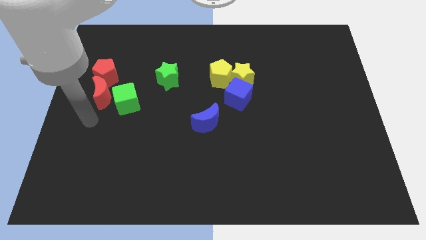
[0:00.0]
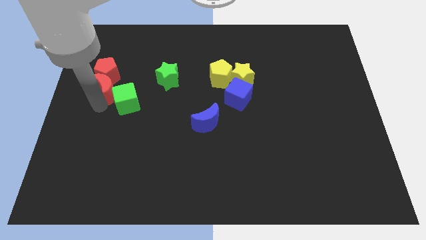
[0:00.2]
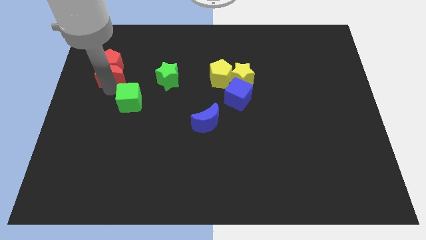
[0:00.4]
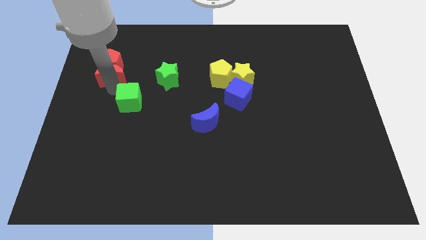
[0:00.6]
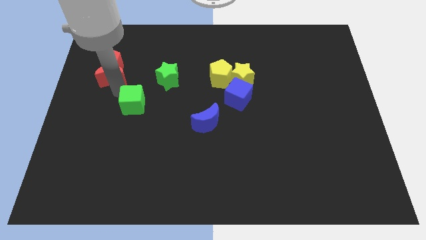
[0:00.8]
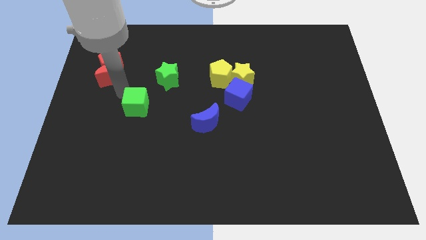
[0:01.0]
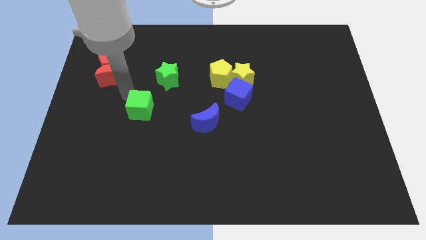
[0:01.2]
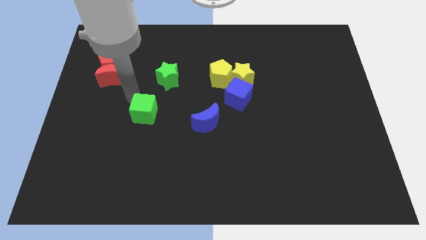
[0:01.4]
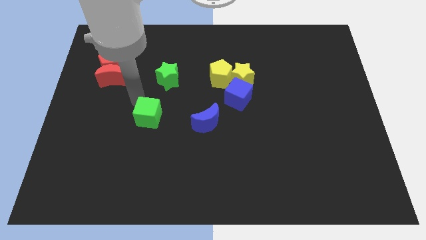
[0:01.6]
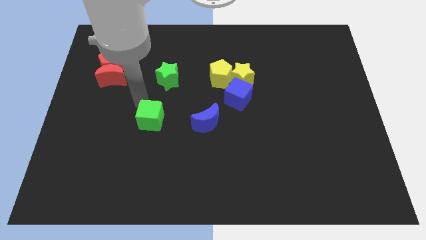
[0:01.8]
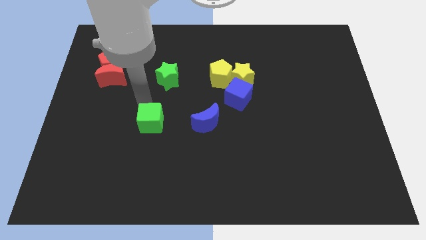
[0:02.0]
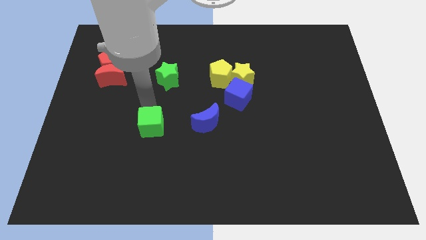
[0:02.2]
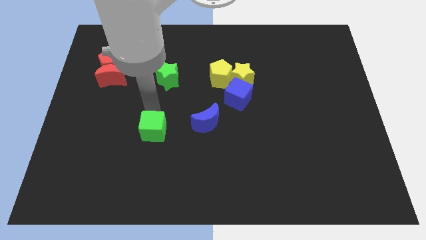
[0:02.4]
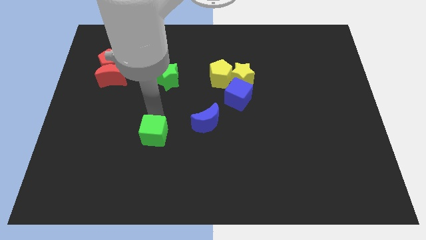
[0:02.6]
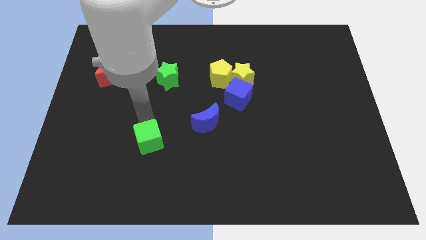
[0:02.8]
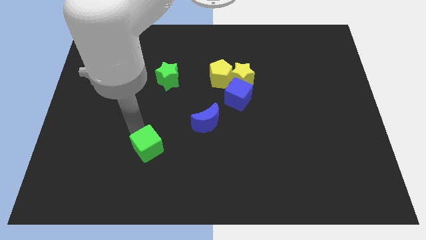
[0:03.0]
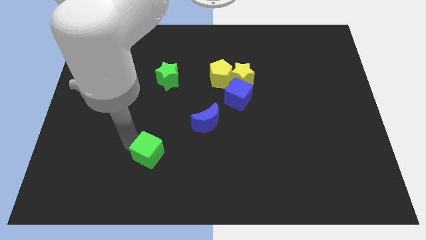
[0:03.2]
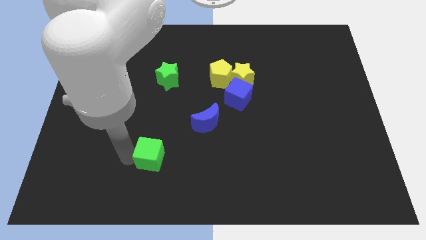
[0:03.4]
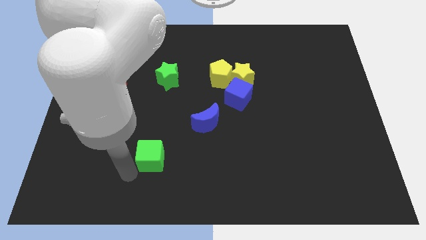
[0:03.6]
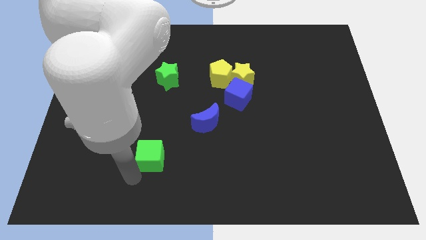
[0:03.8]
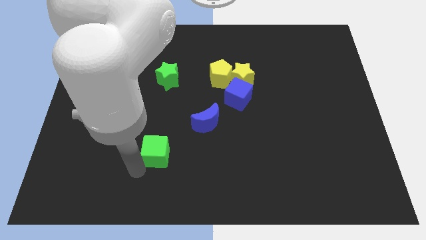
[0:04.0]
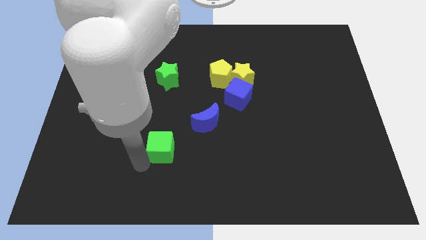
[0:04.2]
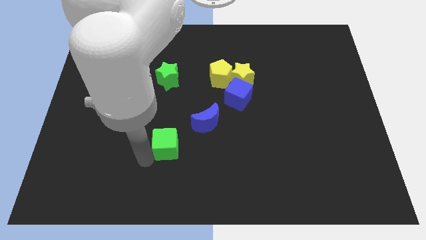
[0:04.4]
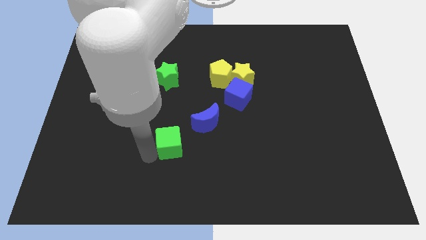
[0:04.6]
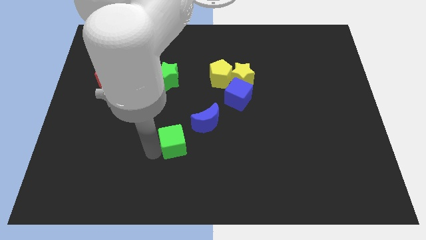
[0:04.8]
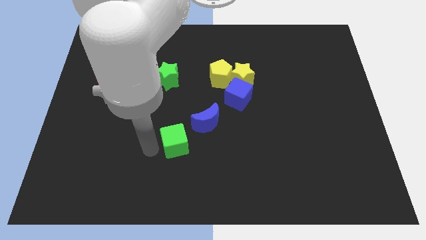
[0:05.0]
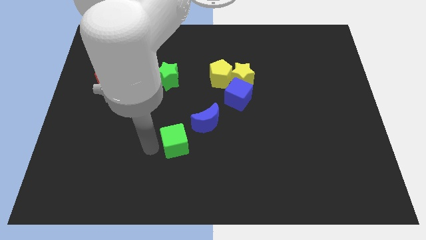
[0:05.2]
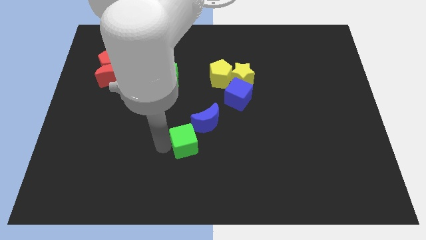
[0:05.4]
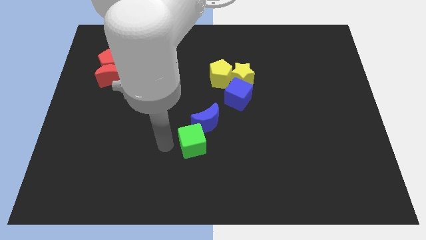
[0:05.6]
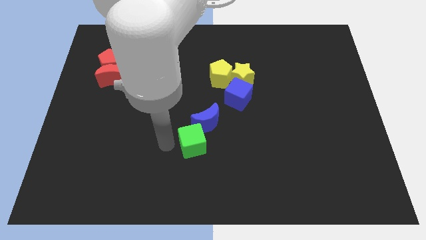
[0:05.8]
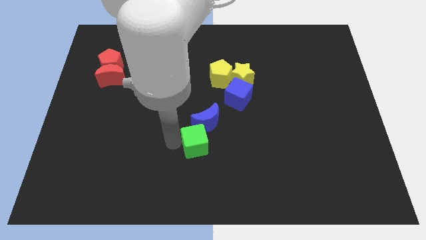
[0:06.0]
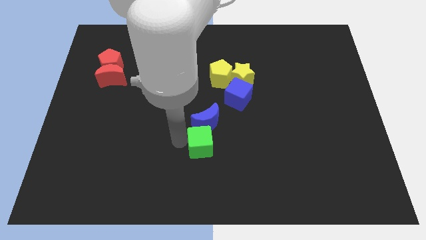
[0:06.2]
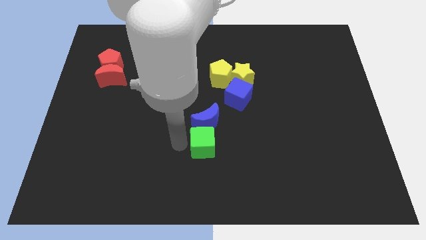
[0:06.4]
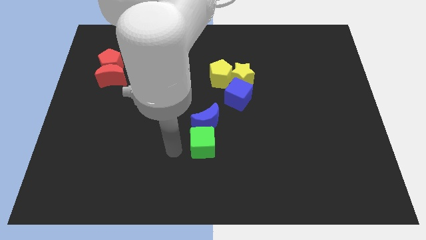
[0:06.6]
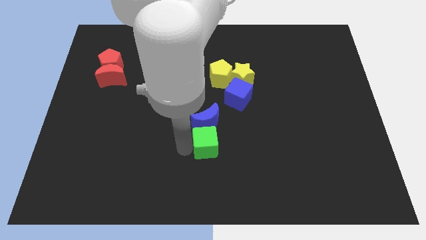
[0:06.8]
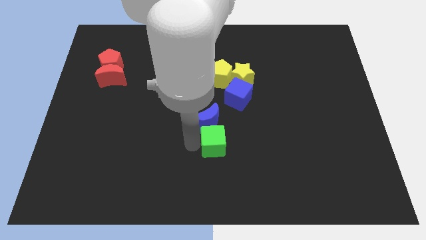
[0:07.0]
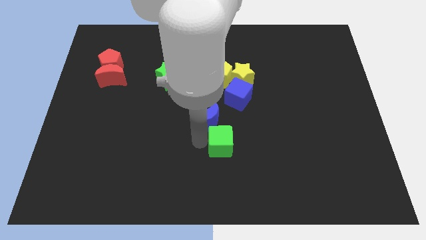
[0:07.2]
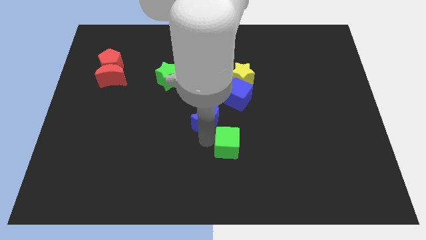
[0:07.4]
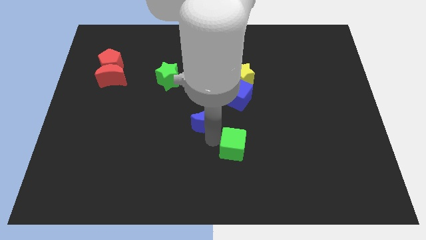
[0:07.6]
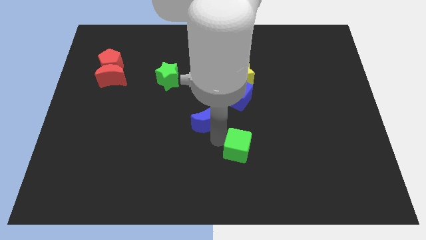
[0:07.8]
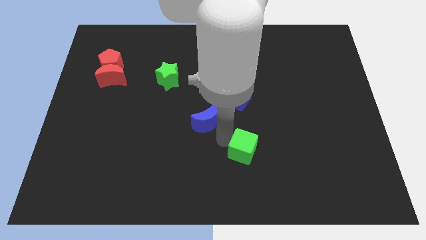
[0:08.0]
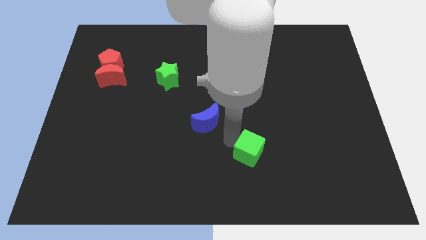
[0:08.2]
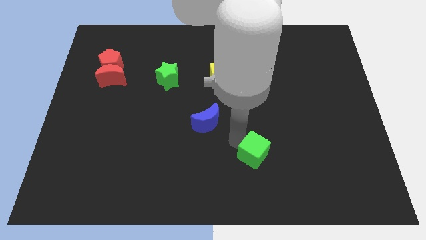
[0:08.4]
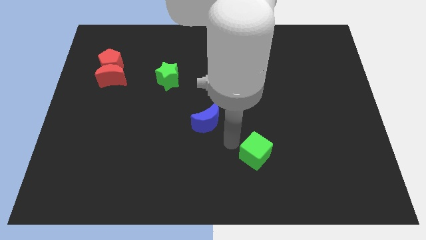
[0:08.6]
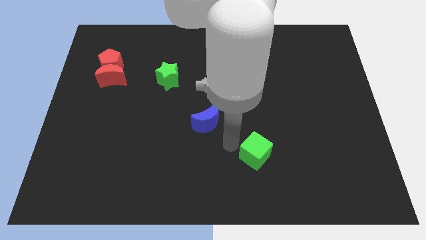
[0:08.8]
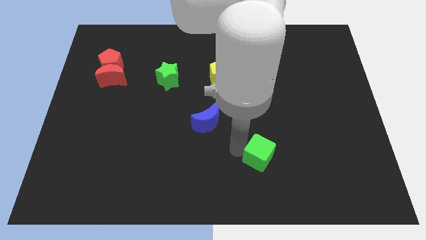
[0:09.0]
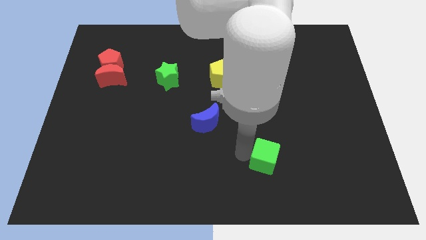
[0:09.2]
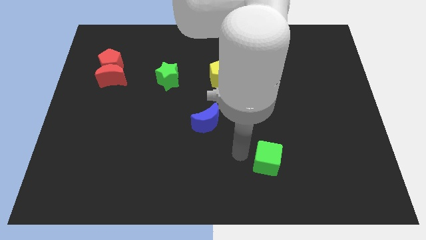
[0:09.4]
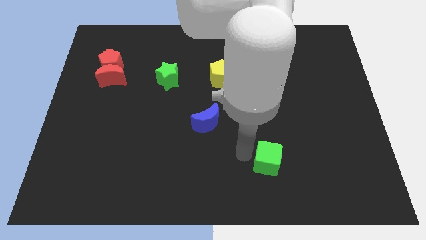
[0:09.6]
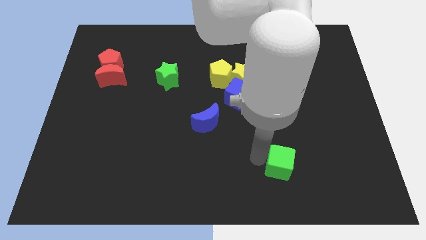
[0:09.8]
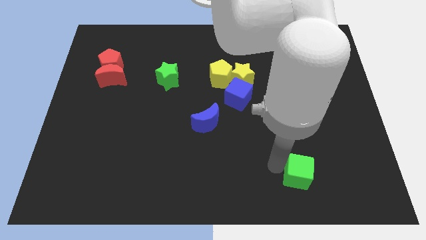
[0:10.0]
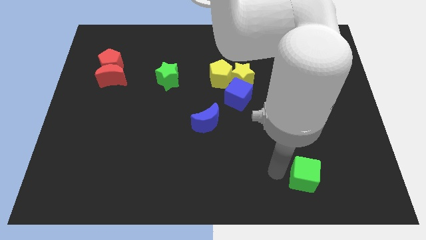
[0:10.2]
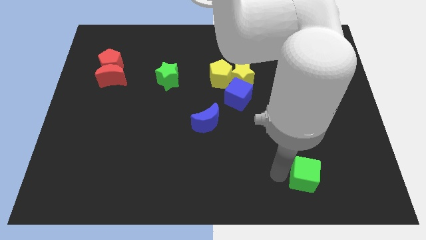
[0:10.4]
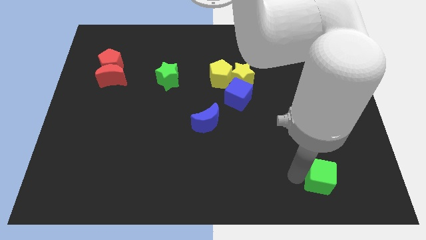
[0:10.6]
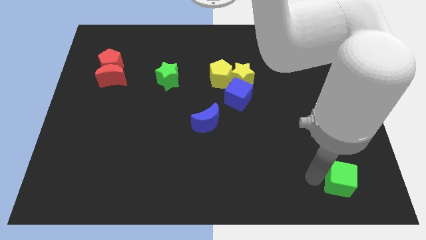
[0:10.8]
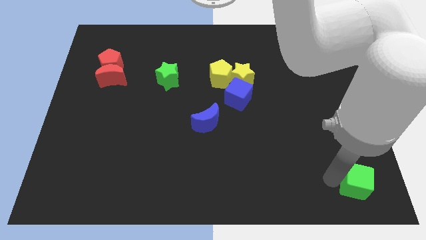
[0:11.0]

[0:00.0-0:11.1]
slide the green cube to the bottom right of the board

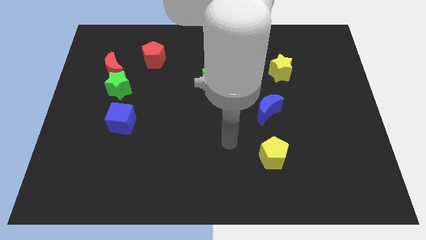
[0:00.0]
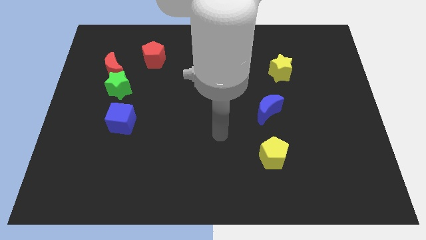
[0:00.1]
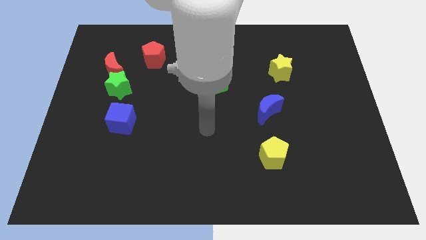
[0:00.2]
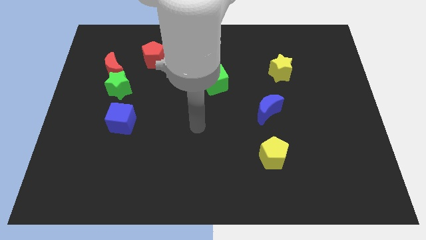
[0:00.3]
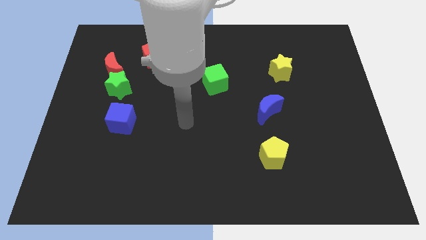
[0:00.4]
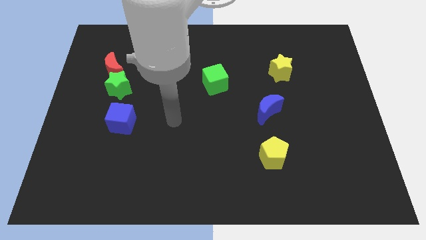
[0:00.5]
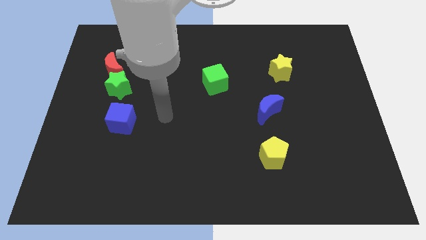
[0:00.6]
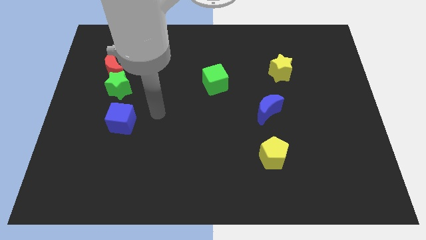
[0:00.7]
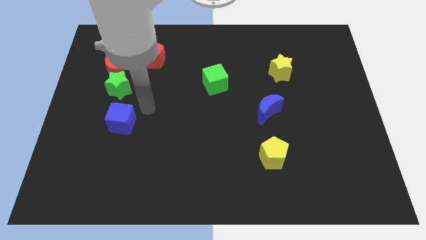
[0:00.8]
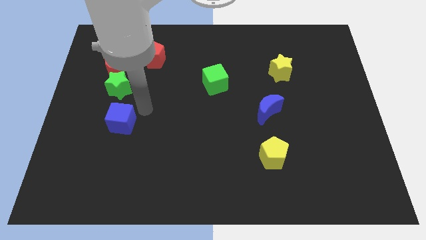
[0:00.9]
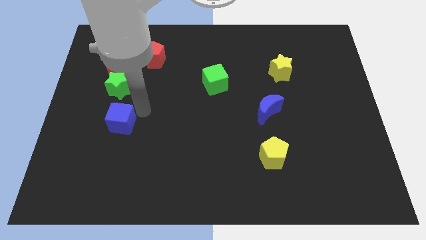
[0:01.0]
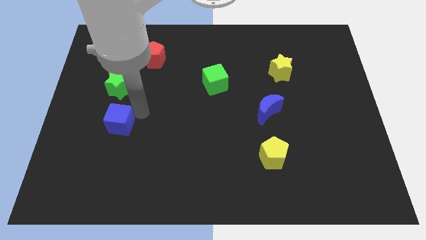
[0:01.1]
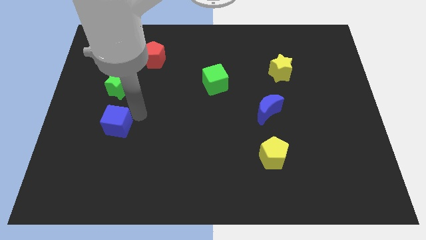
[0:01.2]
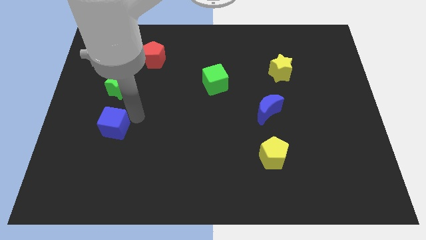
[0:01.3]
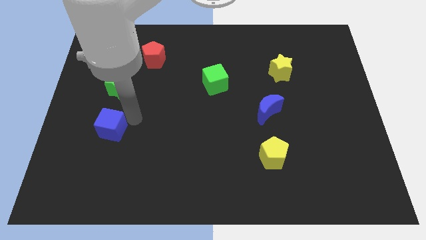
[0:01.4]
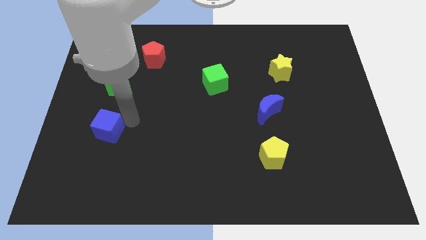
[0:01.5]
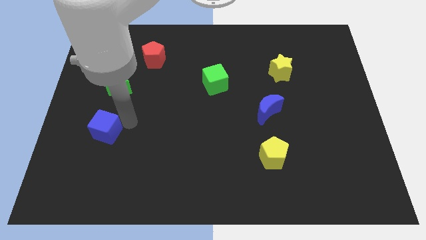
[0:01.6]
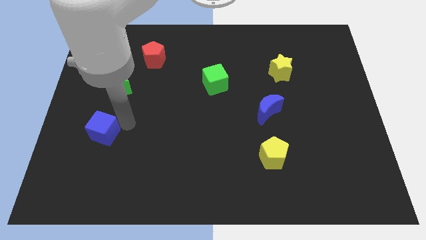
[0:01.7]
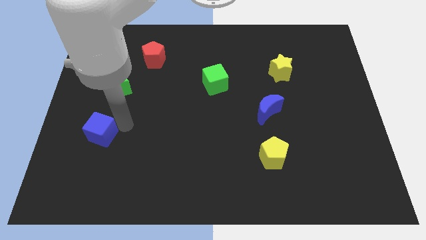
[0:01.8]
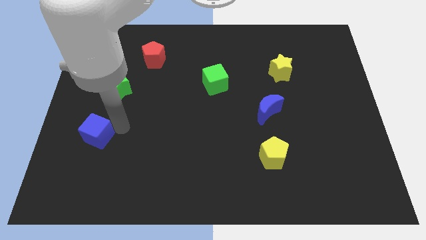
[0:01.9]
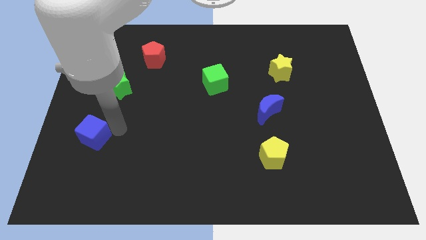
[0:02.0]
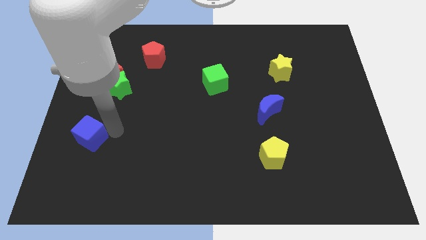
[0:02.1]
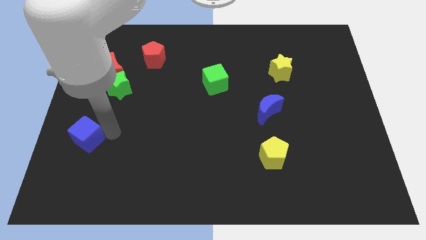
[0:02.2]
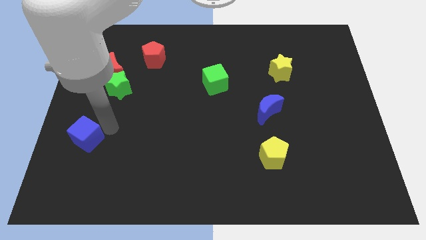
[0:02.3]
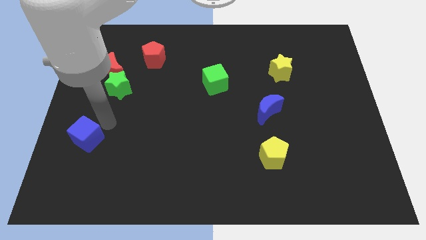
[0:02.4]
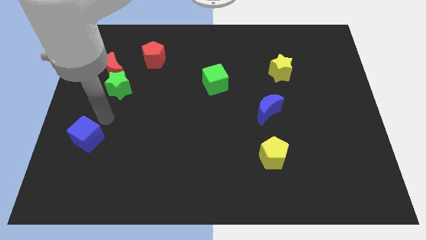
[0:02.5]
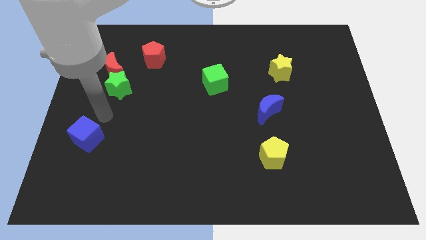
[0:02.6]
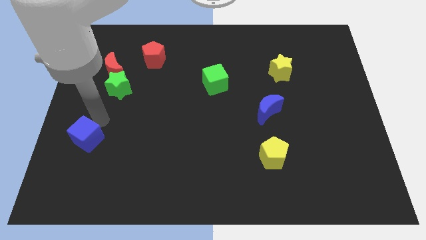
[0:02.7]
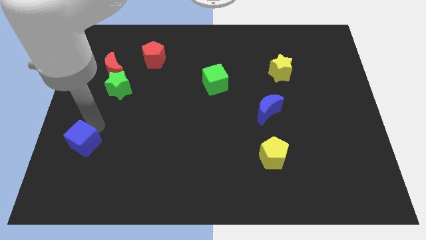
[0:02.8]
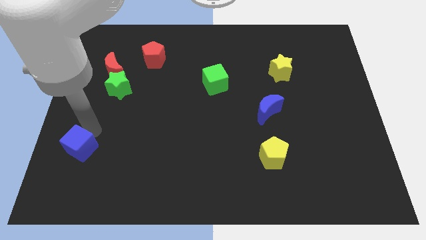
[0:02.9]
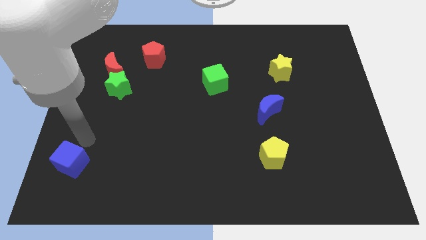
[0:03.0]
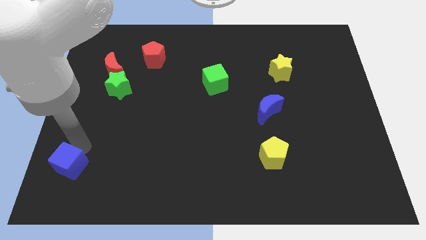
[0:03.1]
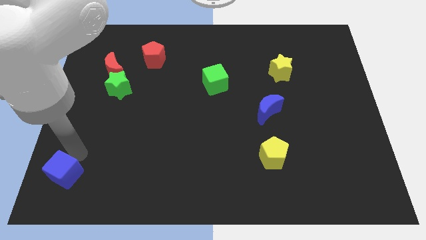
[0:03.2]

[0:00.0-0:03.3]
push the blue cube to the bottom left corner
